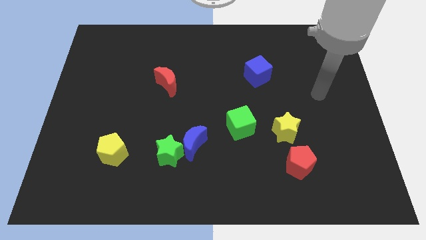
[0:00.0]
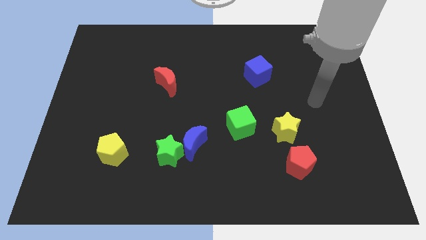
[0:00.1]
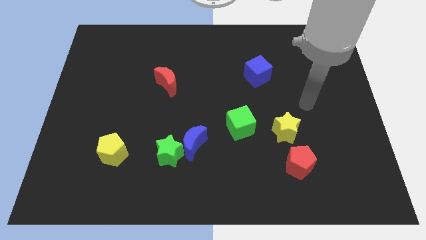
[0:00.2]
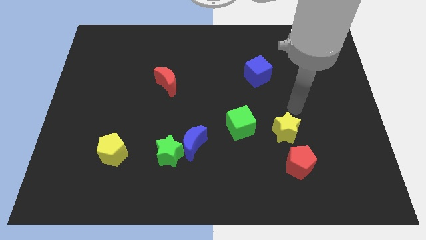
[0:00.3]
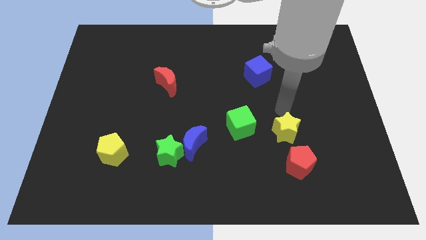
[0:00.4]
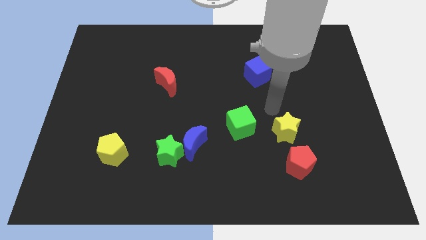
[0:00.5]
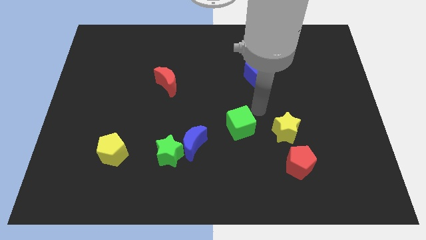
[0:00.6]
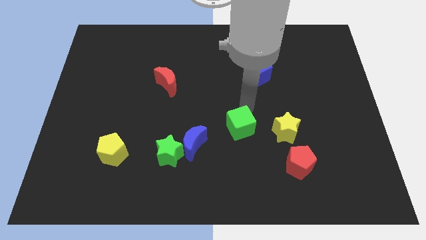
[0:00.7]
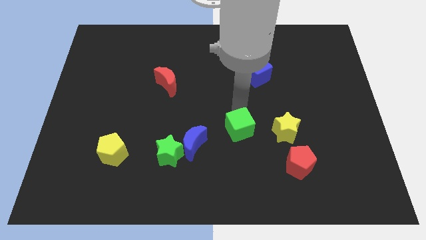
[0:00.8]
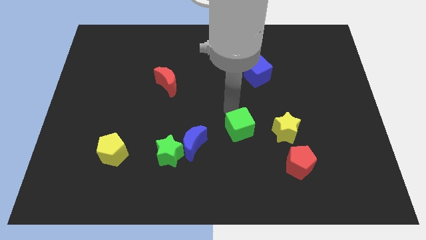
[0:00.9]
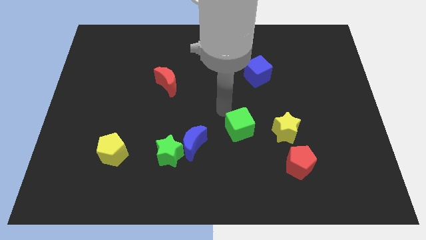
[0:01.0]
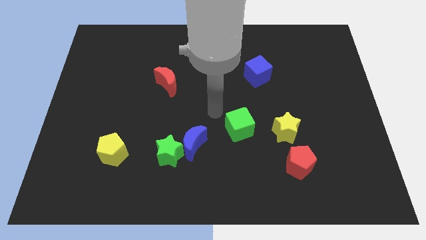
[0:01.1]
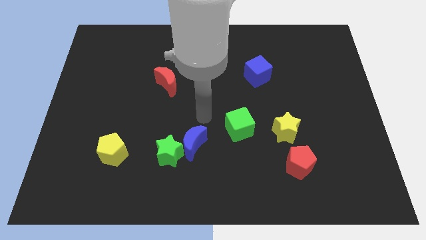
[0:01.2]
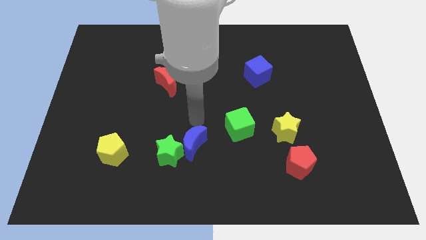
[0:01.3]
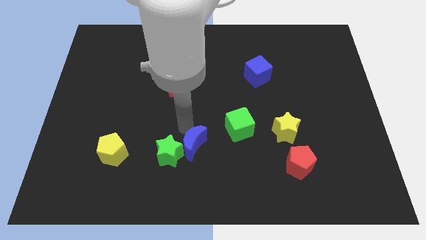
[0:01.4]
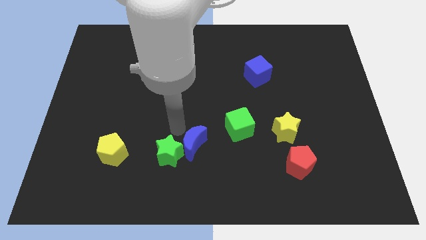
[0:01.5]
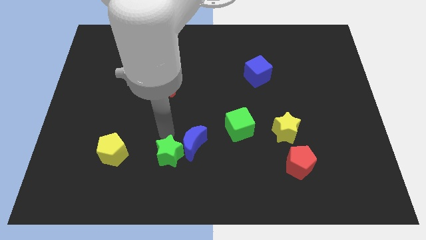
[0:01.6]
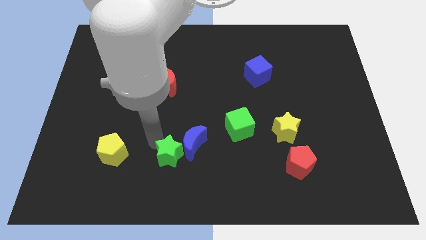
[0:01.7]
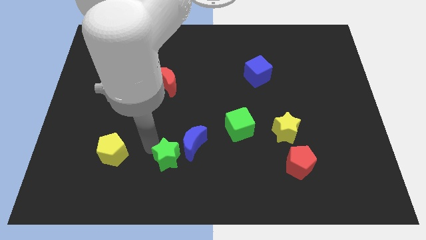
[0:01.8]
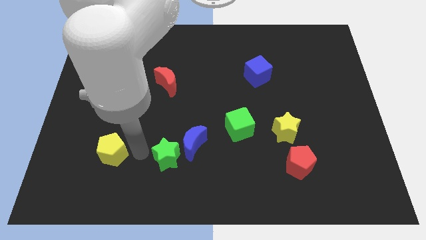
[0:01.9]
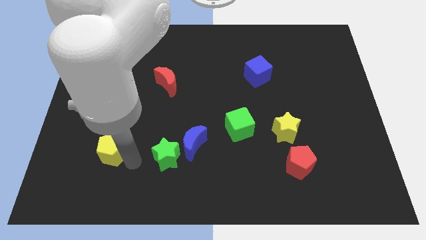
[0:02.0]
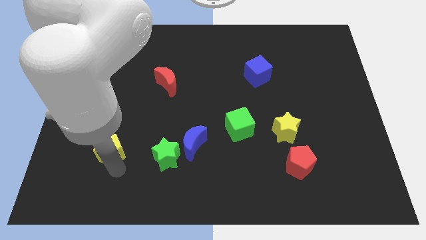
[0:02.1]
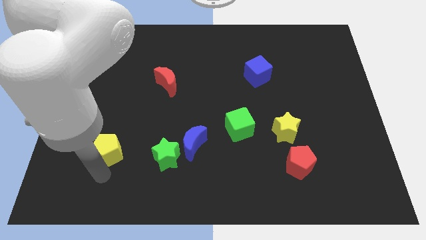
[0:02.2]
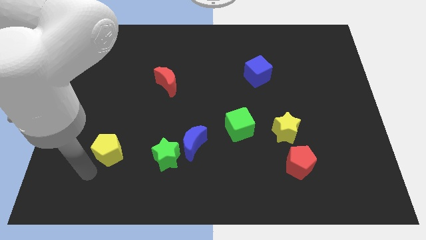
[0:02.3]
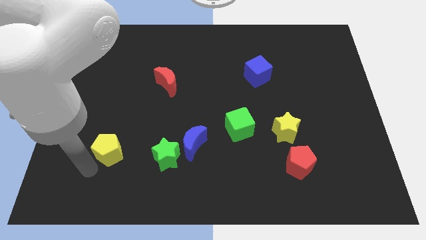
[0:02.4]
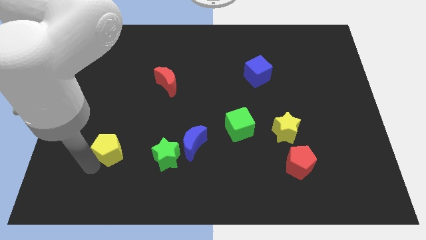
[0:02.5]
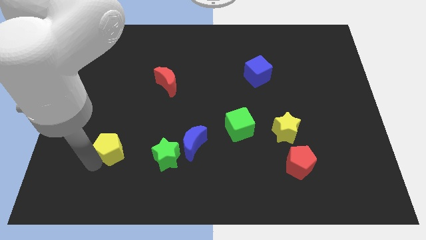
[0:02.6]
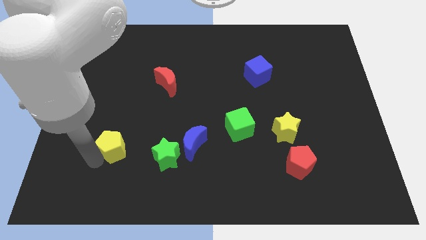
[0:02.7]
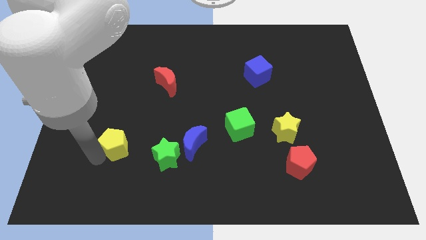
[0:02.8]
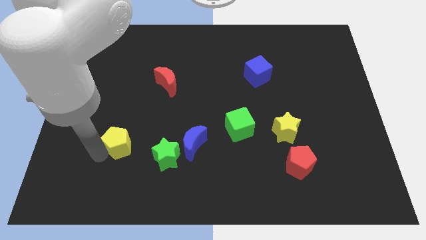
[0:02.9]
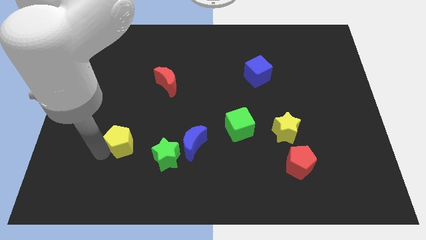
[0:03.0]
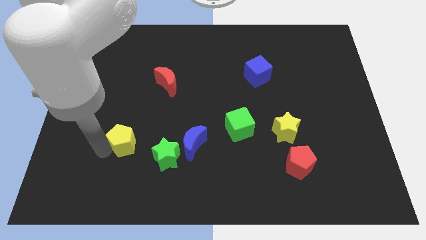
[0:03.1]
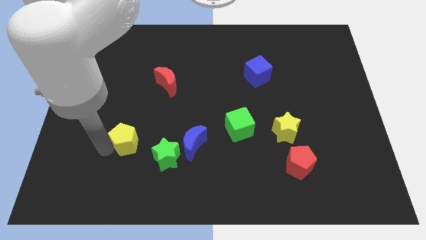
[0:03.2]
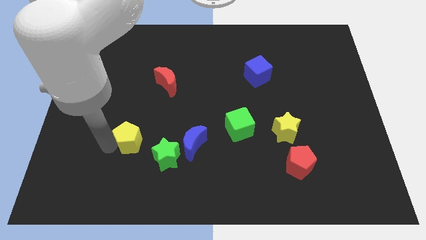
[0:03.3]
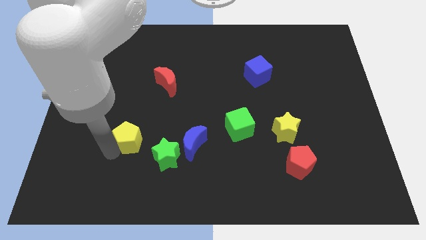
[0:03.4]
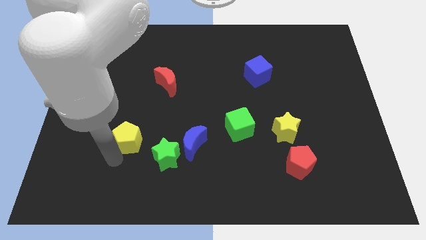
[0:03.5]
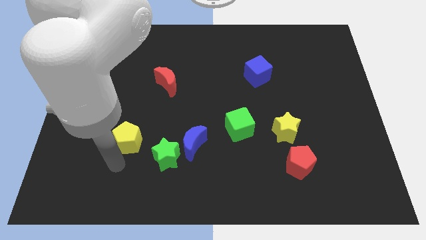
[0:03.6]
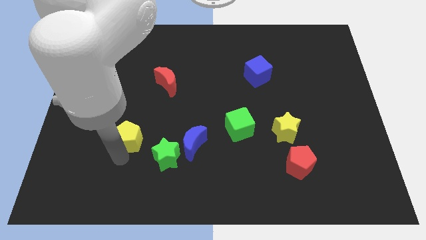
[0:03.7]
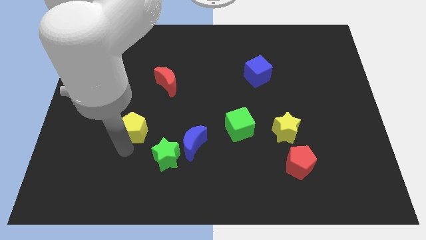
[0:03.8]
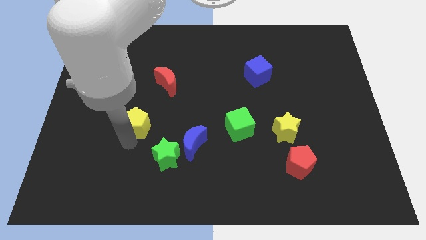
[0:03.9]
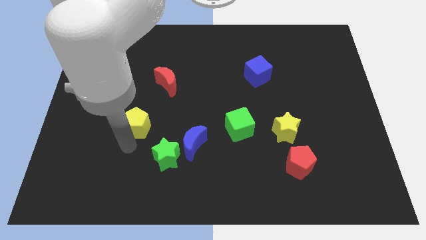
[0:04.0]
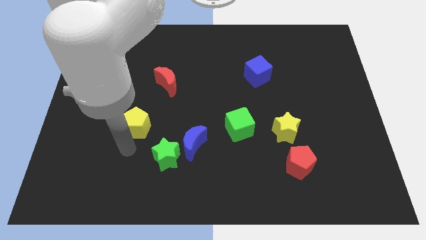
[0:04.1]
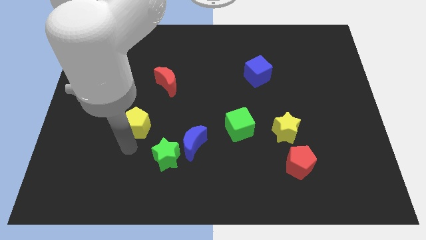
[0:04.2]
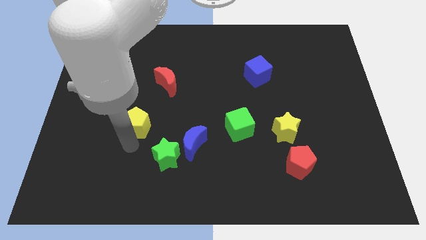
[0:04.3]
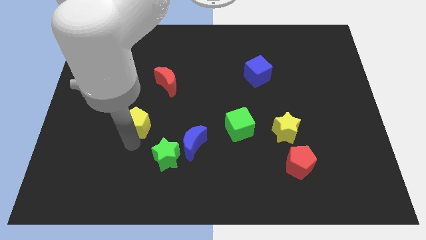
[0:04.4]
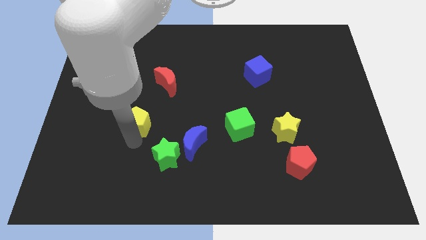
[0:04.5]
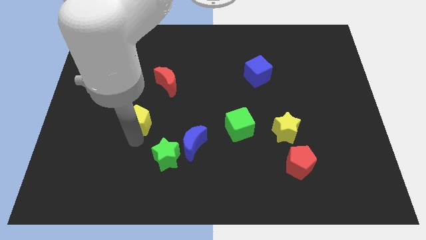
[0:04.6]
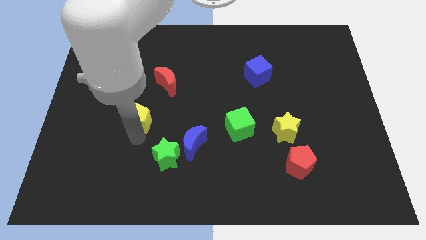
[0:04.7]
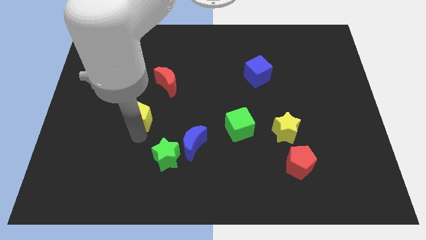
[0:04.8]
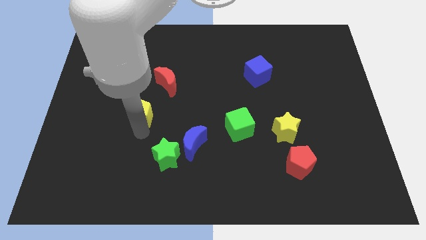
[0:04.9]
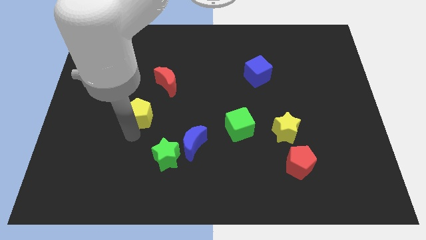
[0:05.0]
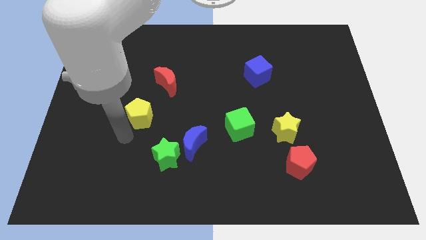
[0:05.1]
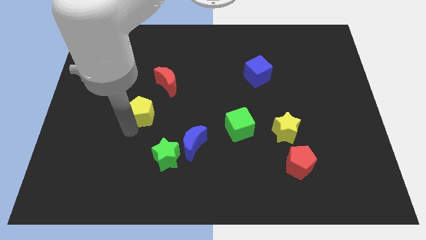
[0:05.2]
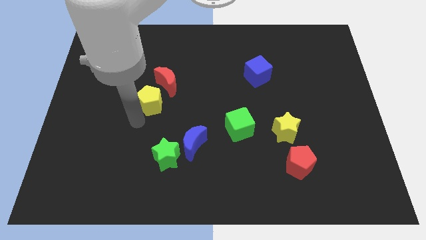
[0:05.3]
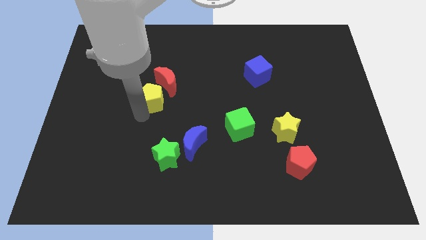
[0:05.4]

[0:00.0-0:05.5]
put the yellow pentagon close to the red moon

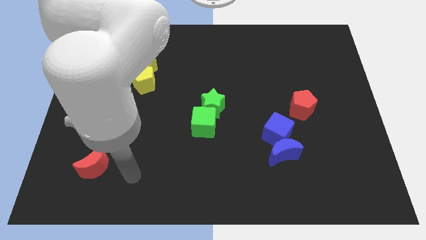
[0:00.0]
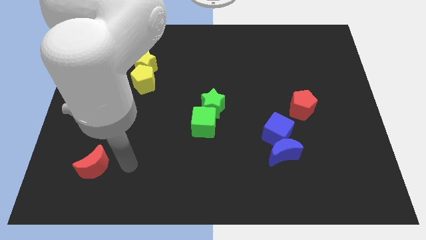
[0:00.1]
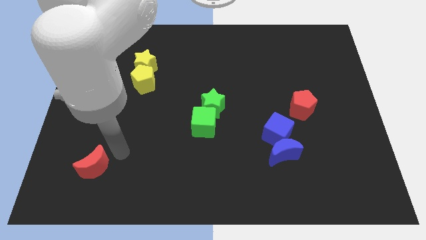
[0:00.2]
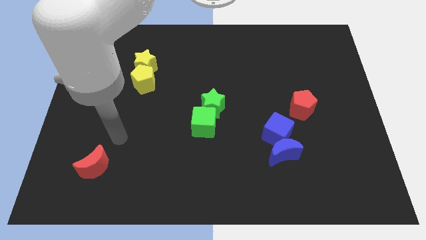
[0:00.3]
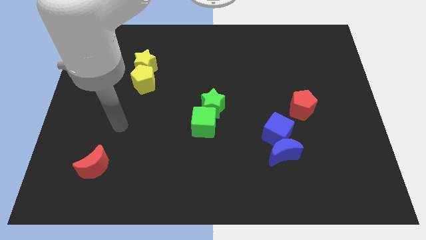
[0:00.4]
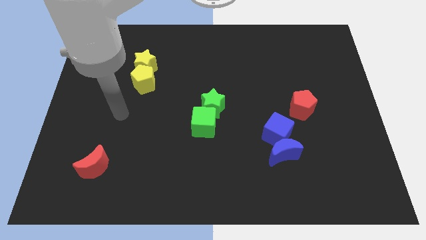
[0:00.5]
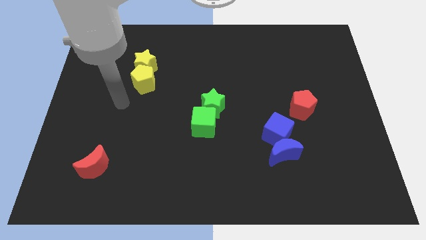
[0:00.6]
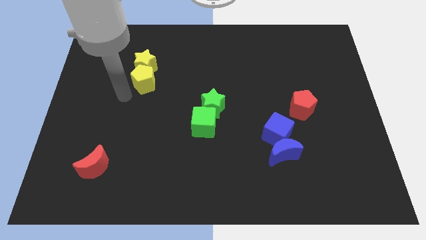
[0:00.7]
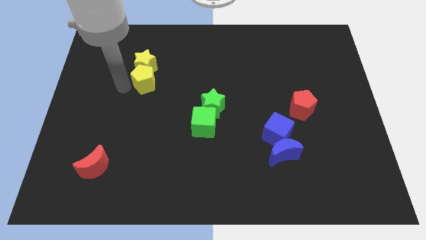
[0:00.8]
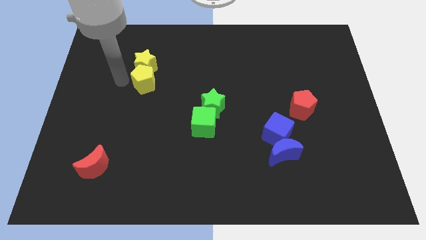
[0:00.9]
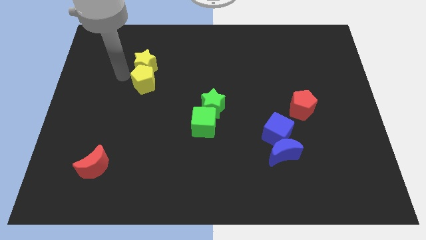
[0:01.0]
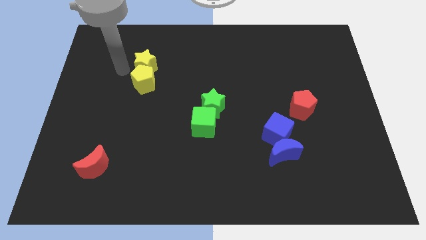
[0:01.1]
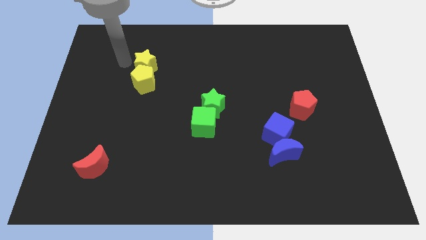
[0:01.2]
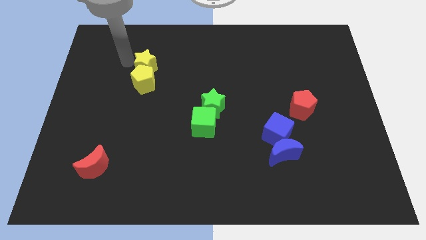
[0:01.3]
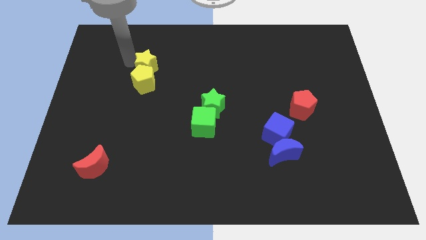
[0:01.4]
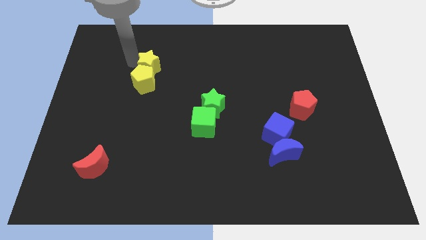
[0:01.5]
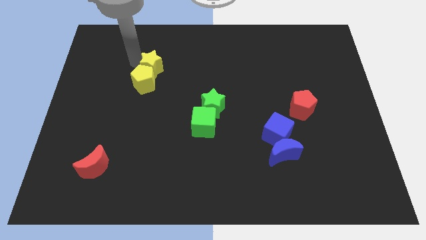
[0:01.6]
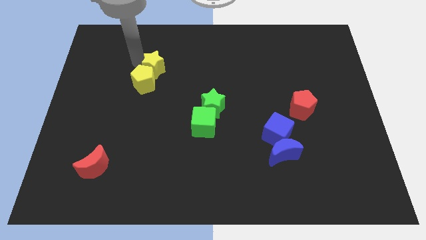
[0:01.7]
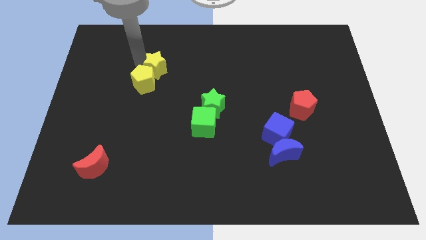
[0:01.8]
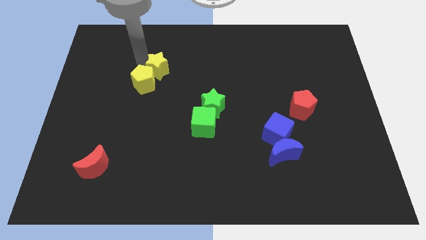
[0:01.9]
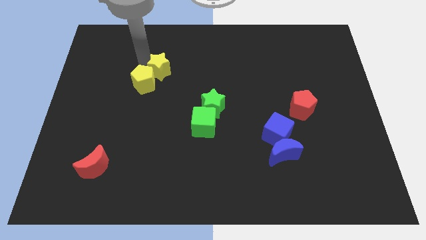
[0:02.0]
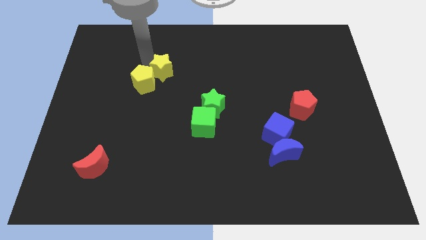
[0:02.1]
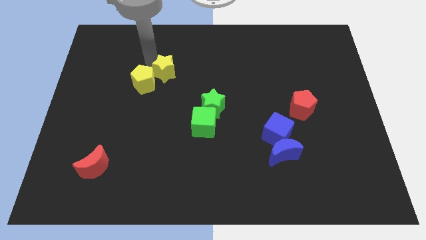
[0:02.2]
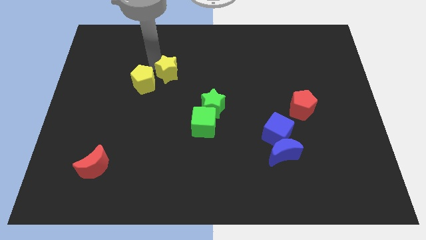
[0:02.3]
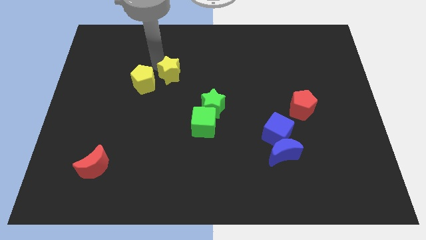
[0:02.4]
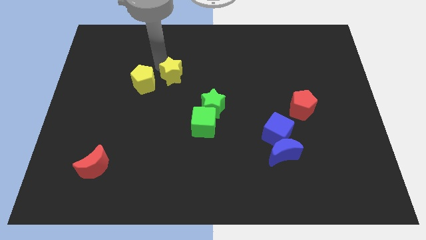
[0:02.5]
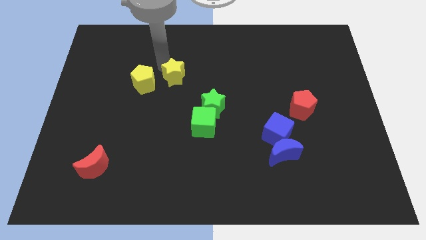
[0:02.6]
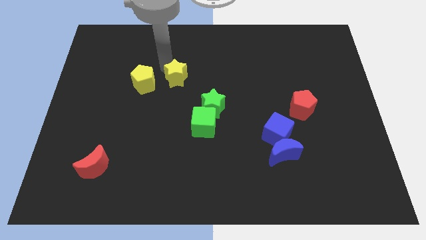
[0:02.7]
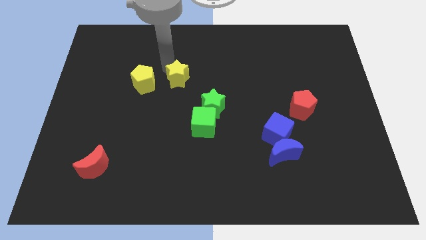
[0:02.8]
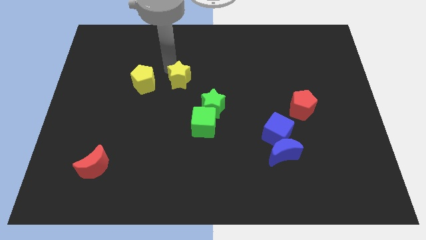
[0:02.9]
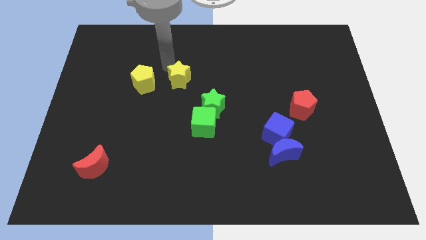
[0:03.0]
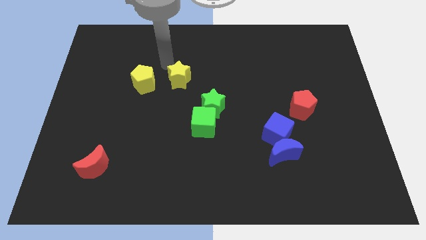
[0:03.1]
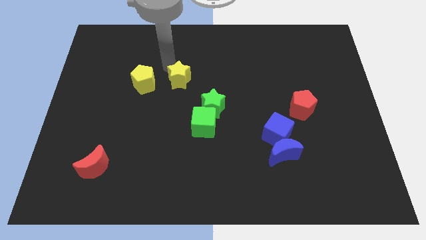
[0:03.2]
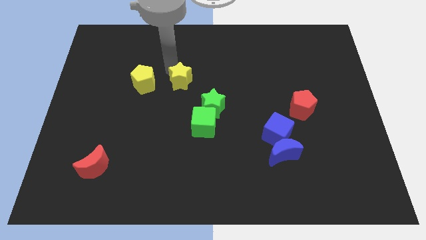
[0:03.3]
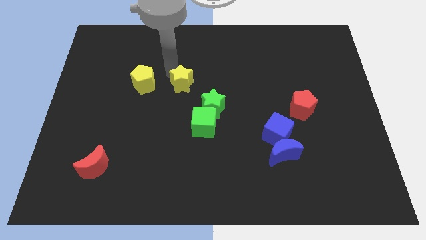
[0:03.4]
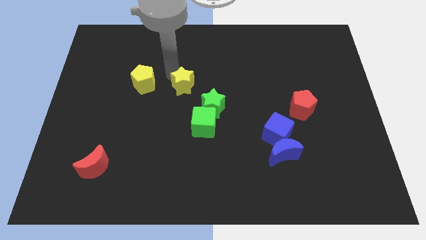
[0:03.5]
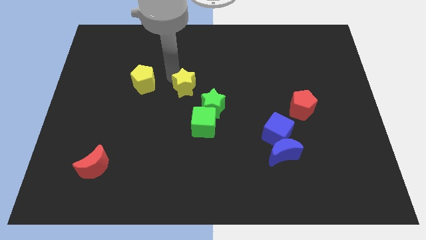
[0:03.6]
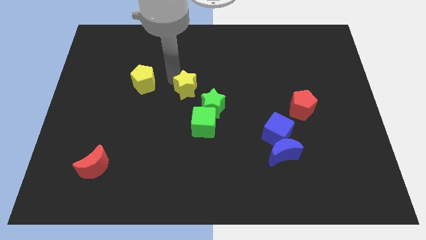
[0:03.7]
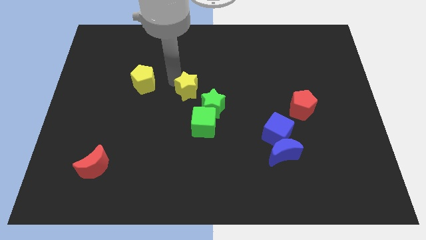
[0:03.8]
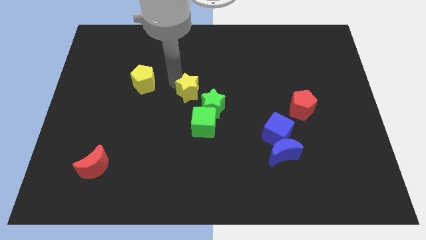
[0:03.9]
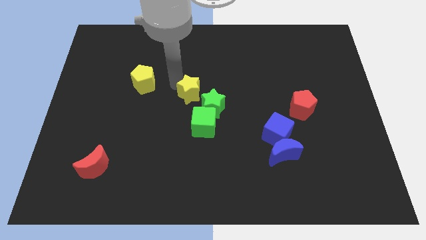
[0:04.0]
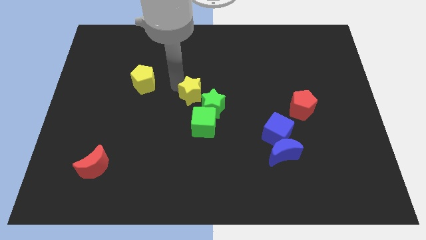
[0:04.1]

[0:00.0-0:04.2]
slide the yellow star to the green star
